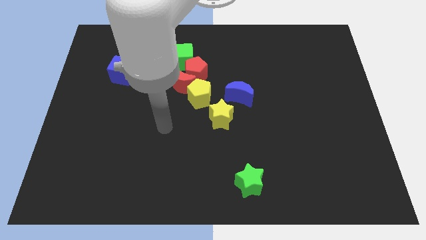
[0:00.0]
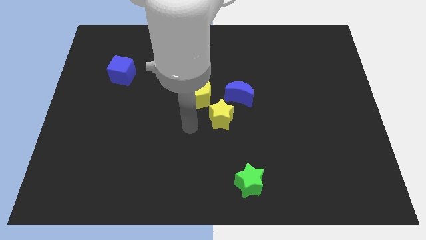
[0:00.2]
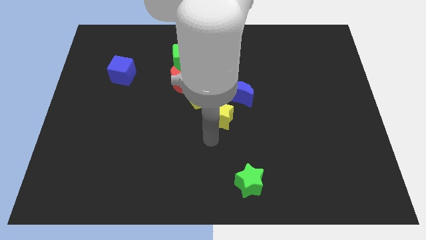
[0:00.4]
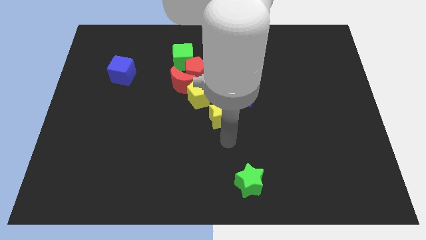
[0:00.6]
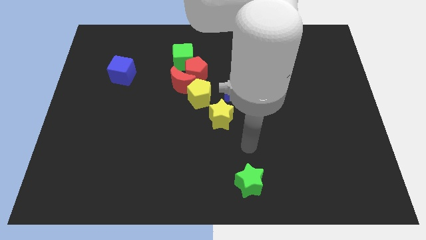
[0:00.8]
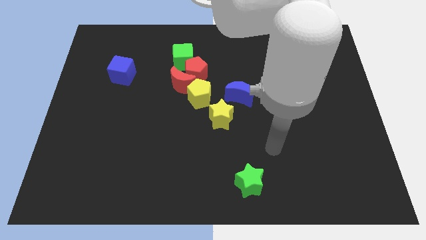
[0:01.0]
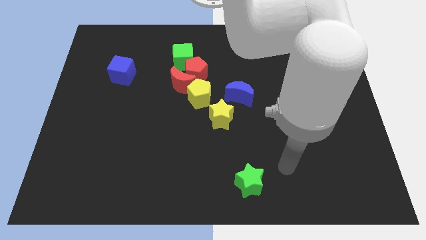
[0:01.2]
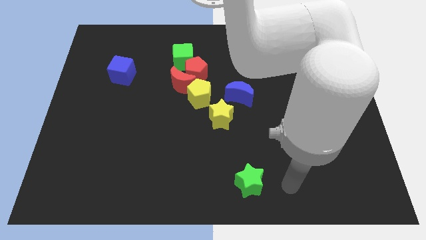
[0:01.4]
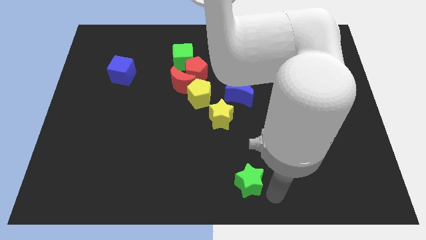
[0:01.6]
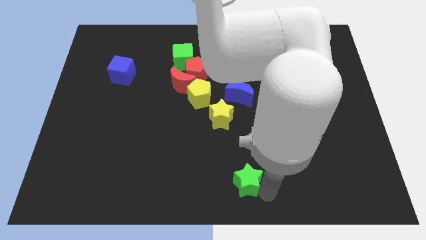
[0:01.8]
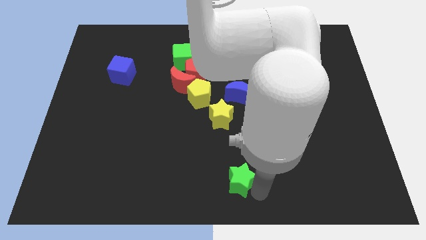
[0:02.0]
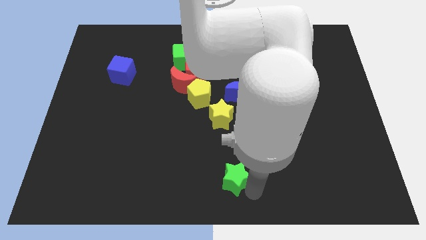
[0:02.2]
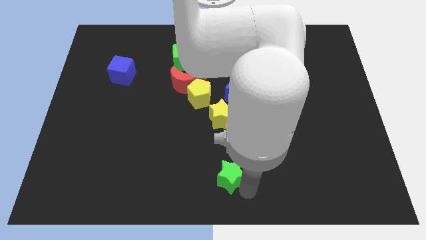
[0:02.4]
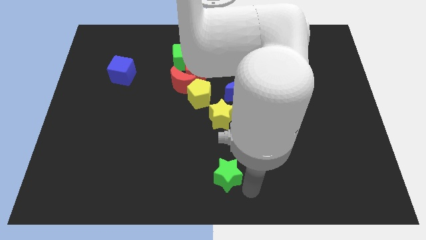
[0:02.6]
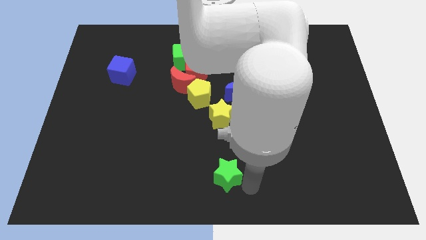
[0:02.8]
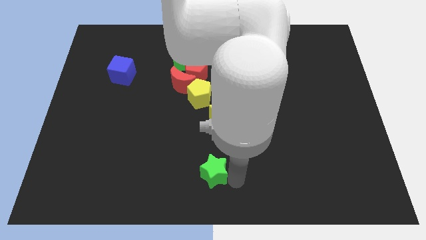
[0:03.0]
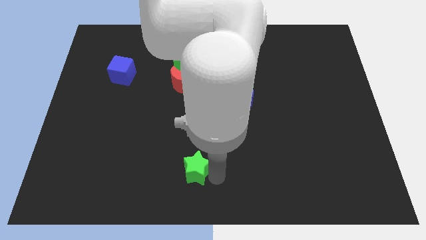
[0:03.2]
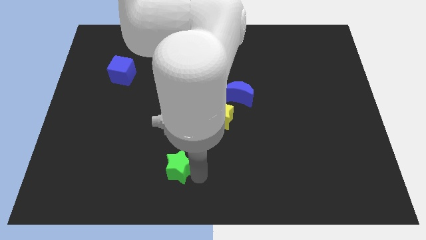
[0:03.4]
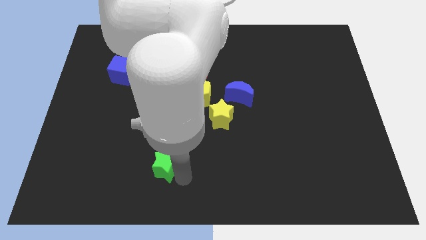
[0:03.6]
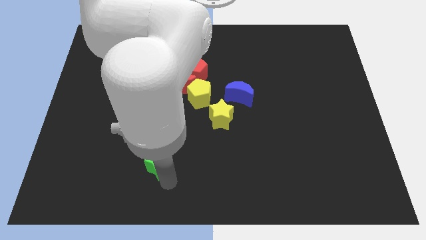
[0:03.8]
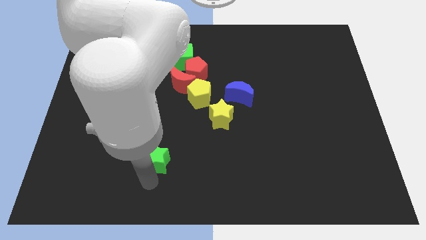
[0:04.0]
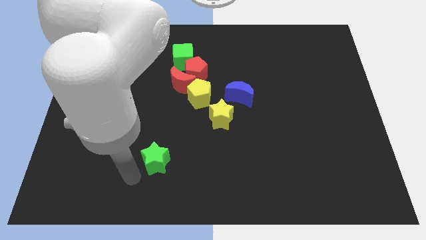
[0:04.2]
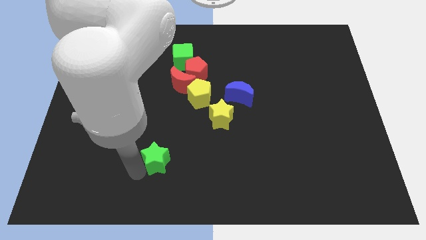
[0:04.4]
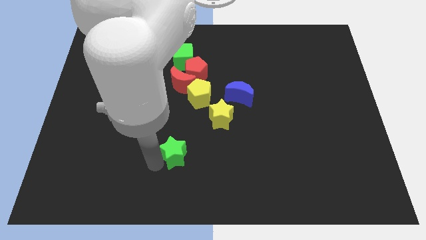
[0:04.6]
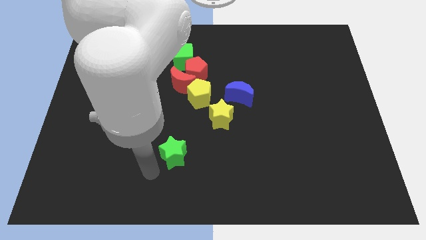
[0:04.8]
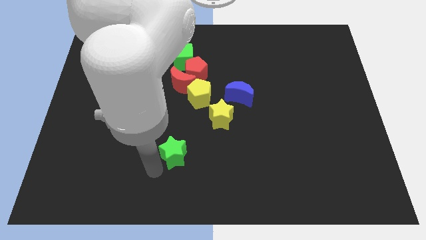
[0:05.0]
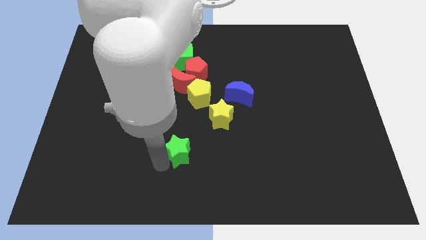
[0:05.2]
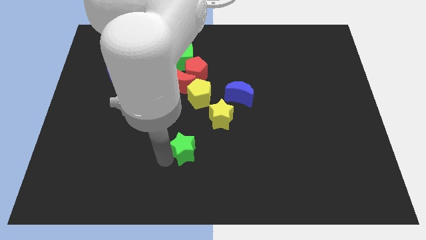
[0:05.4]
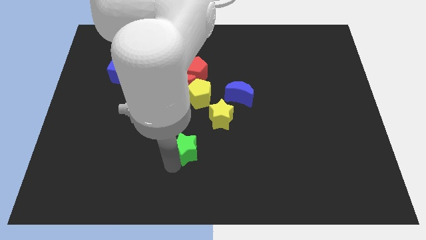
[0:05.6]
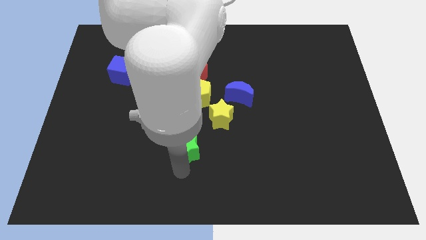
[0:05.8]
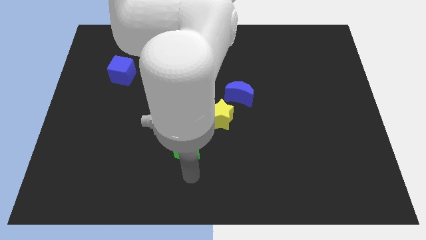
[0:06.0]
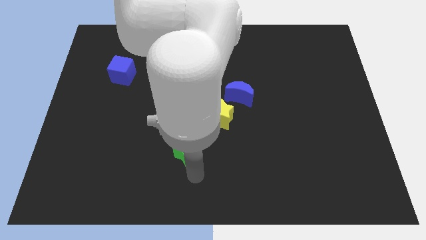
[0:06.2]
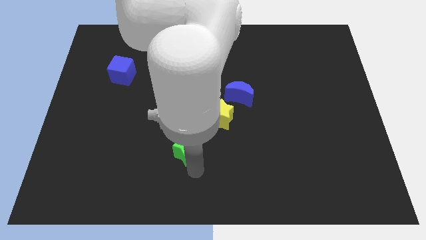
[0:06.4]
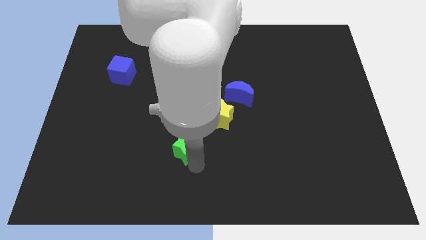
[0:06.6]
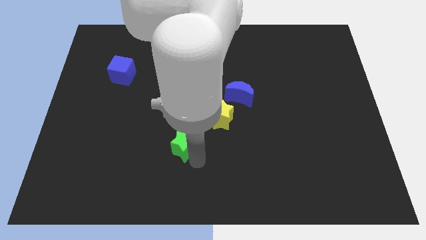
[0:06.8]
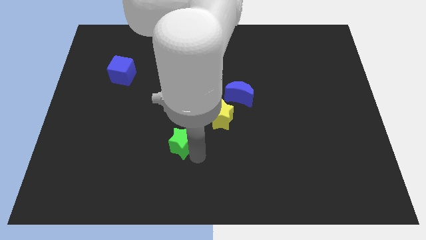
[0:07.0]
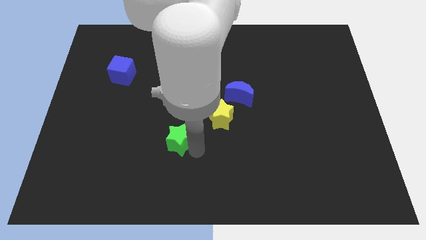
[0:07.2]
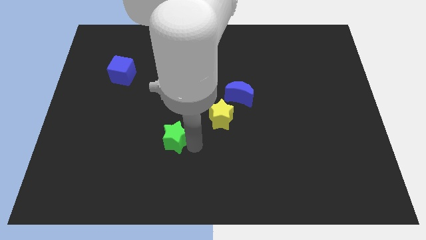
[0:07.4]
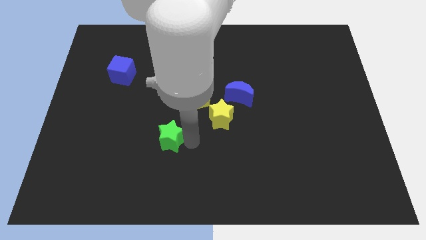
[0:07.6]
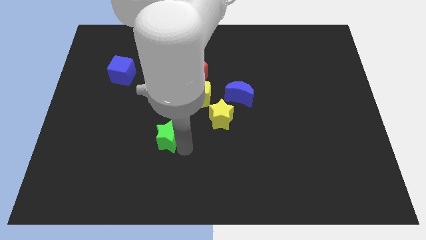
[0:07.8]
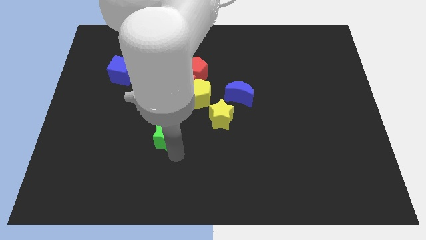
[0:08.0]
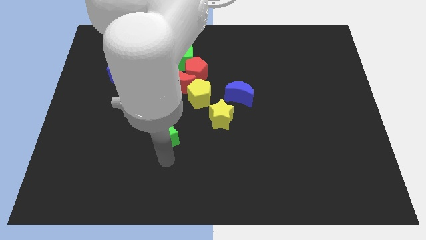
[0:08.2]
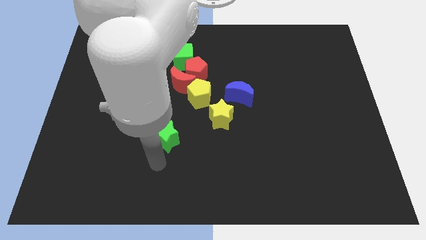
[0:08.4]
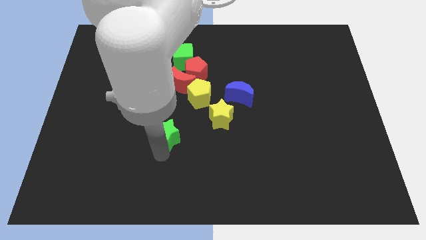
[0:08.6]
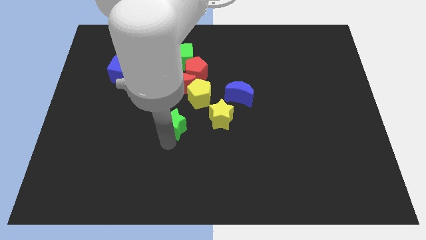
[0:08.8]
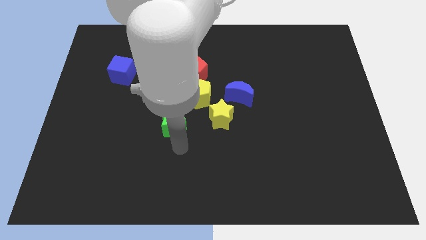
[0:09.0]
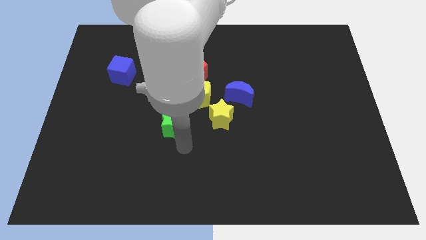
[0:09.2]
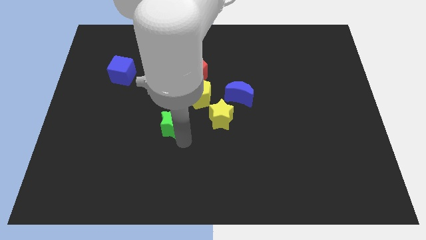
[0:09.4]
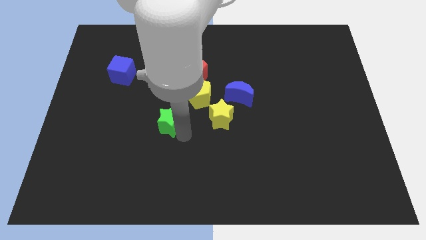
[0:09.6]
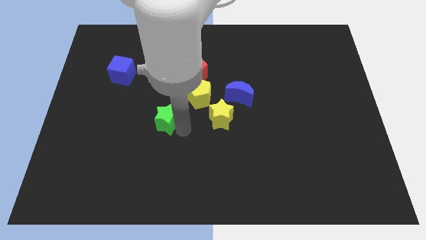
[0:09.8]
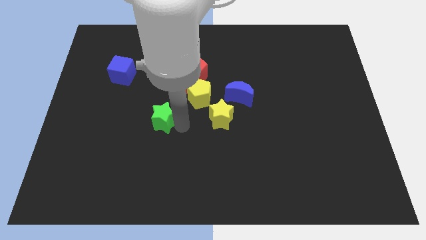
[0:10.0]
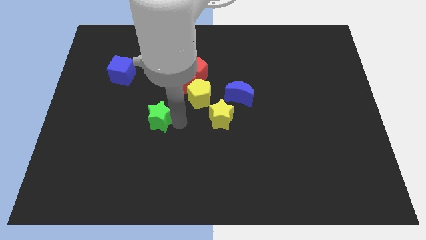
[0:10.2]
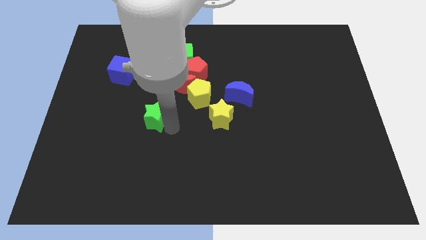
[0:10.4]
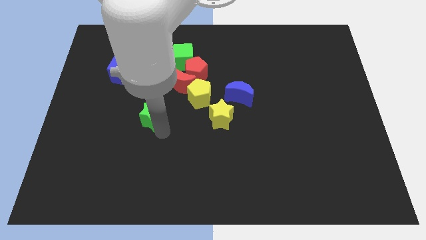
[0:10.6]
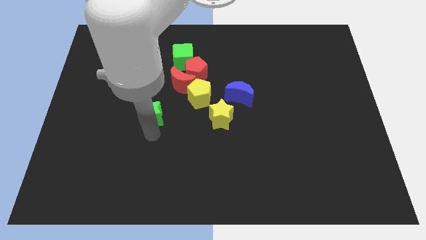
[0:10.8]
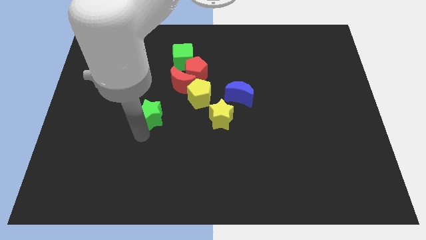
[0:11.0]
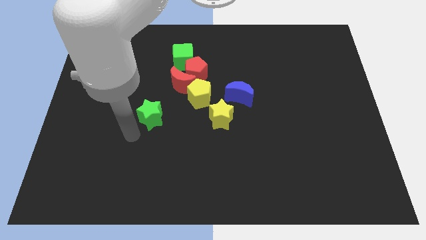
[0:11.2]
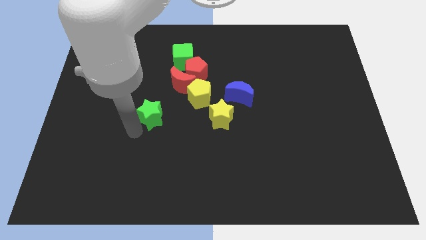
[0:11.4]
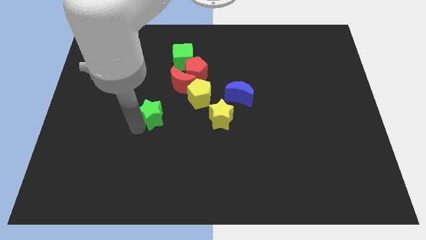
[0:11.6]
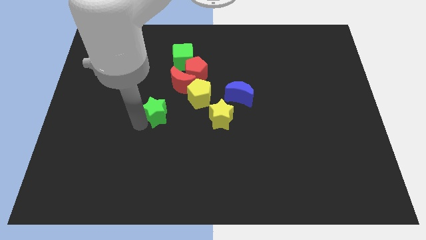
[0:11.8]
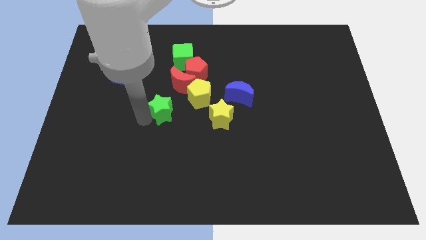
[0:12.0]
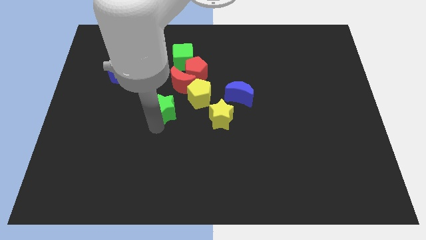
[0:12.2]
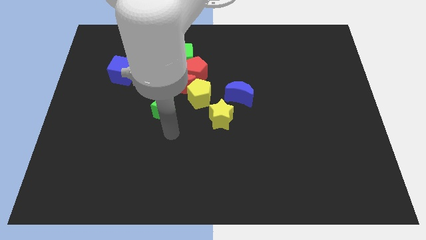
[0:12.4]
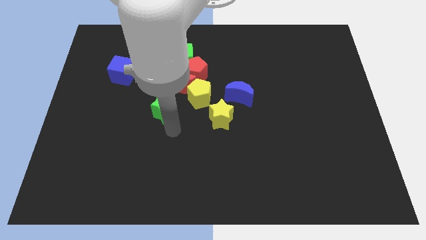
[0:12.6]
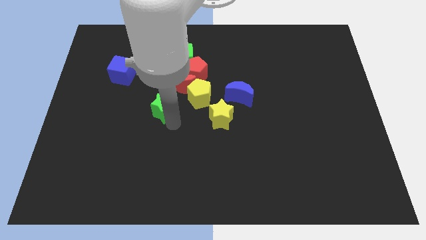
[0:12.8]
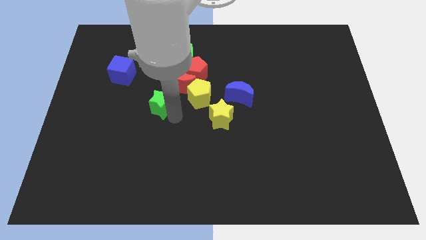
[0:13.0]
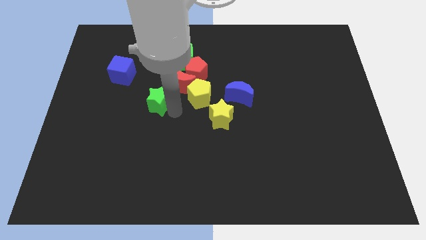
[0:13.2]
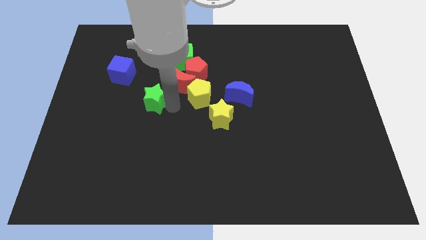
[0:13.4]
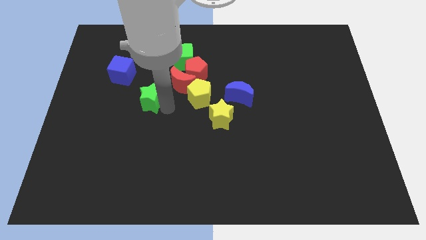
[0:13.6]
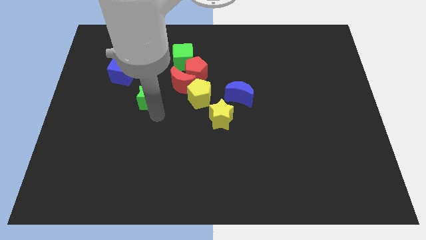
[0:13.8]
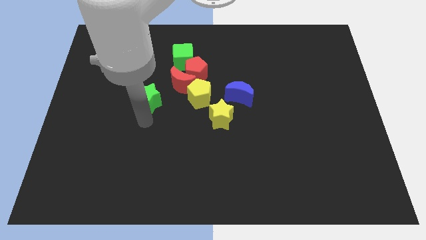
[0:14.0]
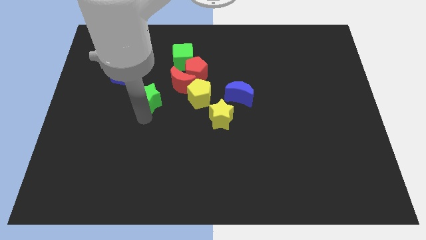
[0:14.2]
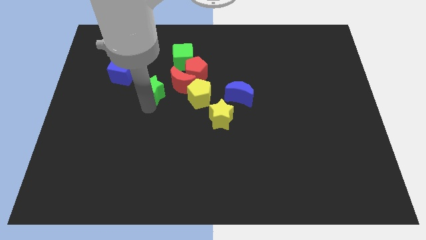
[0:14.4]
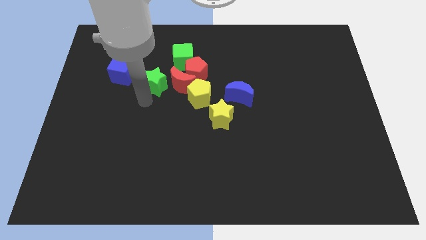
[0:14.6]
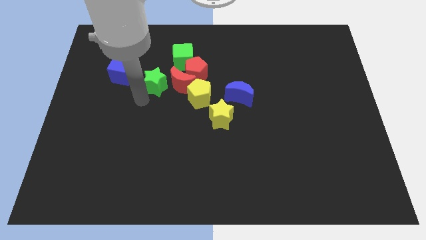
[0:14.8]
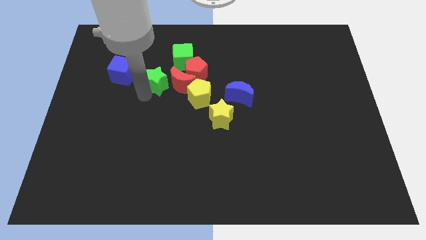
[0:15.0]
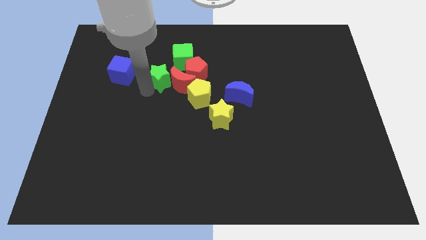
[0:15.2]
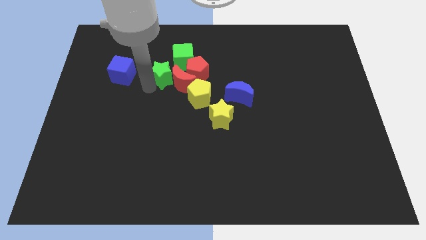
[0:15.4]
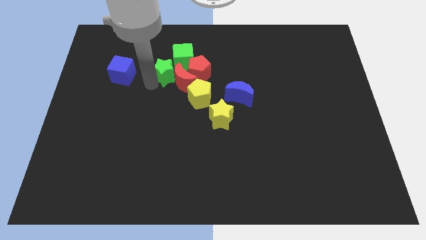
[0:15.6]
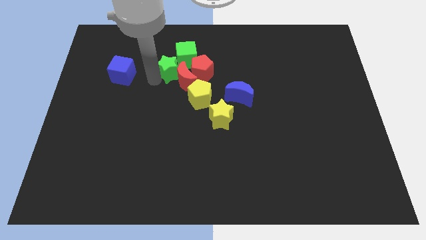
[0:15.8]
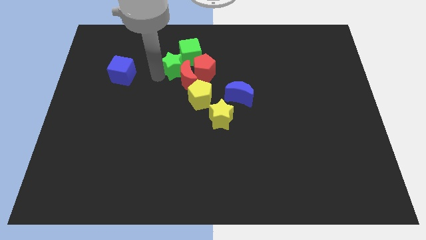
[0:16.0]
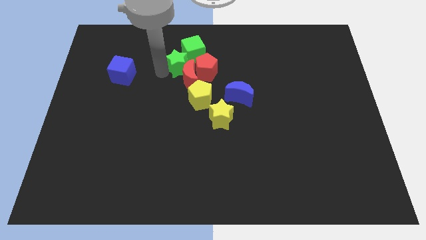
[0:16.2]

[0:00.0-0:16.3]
push the green star close to the green cube
